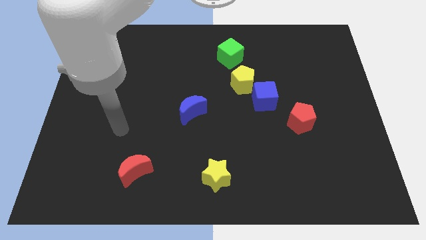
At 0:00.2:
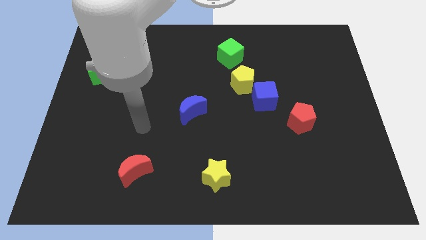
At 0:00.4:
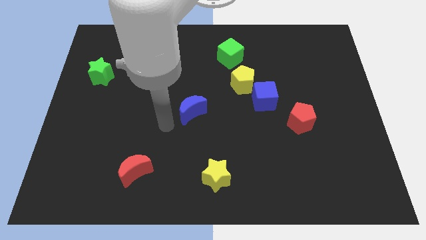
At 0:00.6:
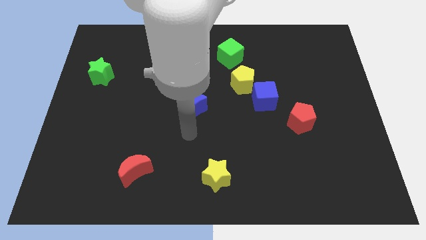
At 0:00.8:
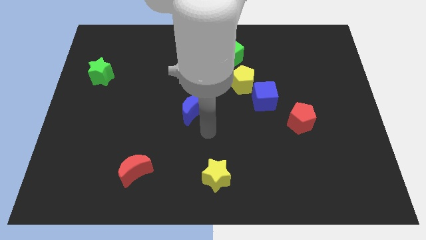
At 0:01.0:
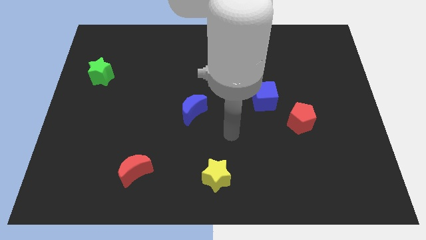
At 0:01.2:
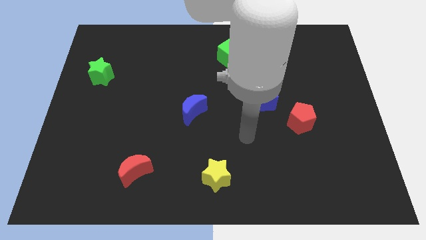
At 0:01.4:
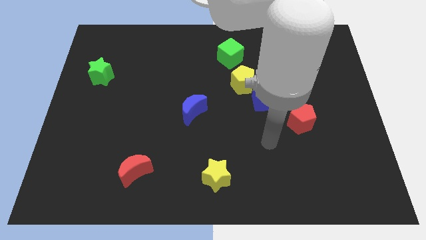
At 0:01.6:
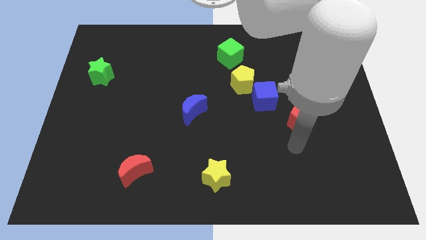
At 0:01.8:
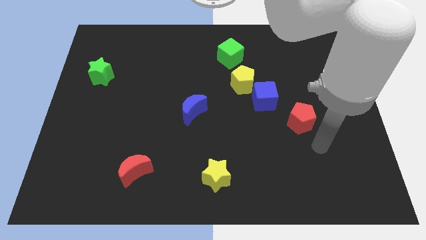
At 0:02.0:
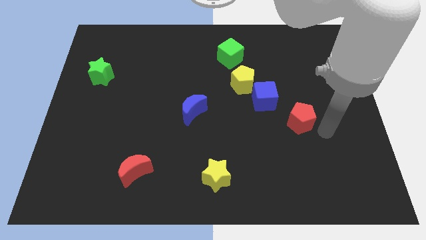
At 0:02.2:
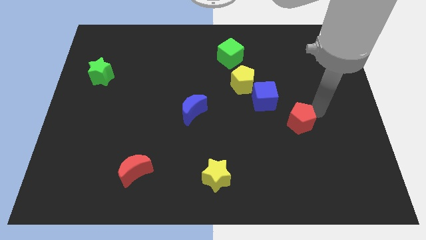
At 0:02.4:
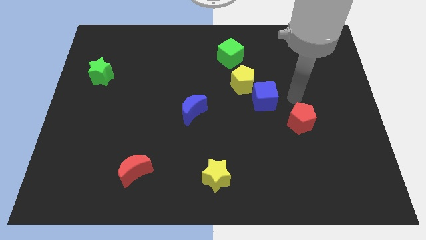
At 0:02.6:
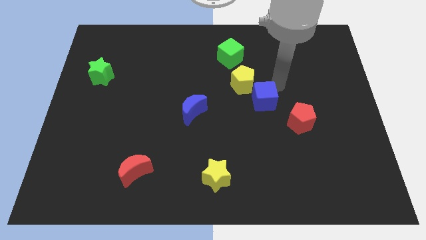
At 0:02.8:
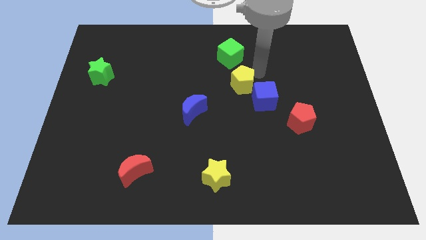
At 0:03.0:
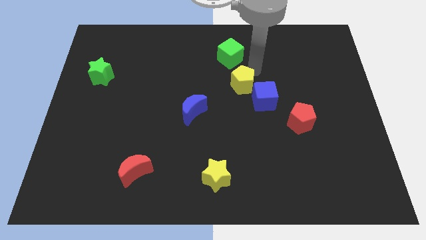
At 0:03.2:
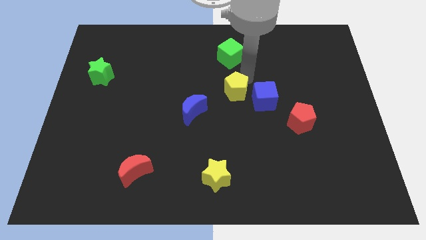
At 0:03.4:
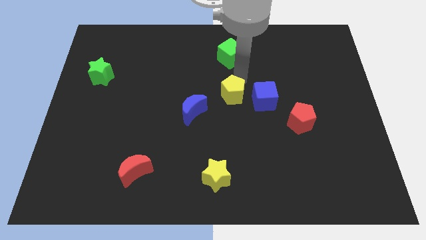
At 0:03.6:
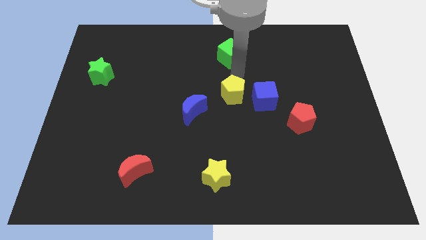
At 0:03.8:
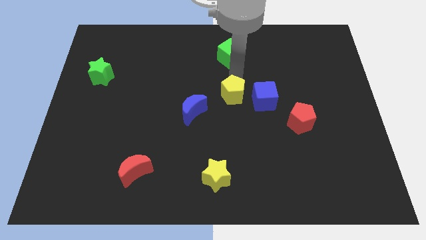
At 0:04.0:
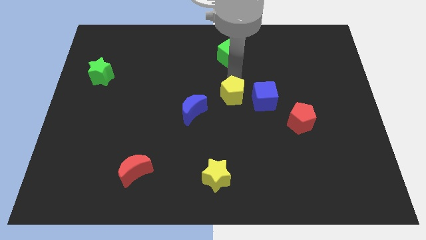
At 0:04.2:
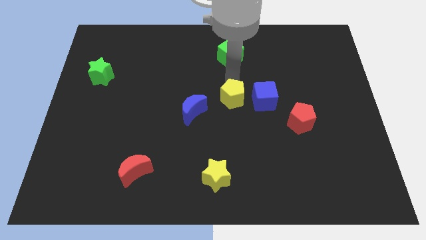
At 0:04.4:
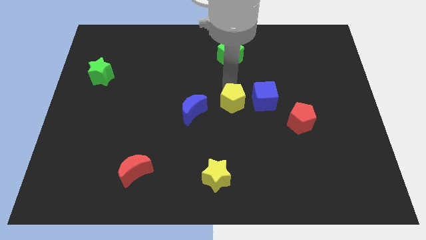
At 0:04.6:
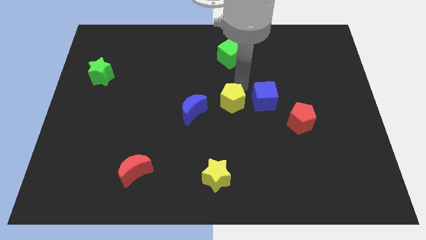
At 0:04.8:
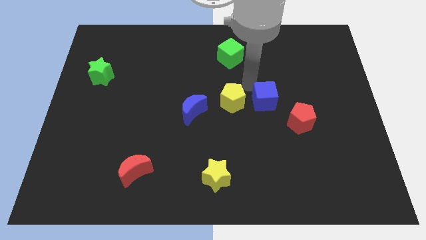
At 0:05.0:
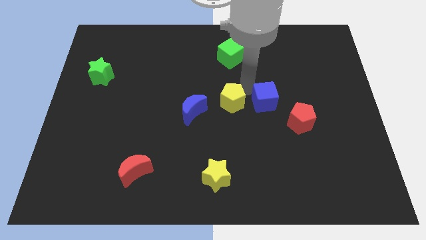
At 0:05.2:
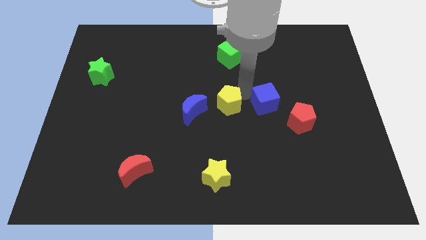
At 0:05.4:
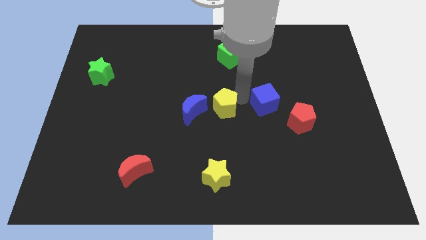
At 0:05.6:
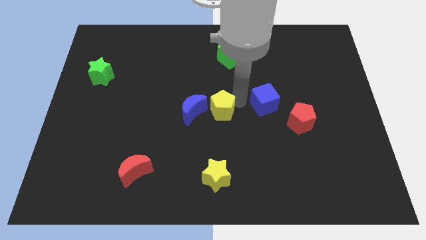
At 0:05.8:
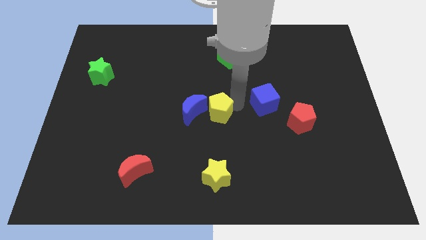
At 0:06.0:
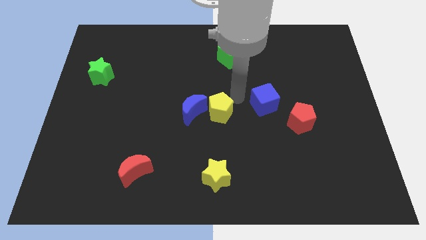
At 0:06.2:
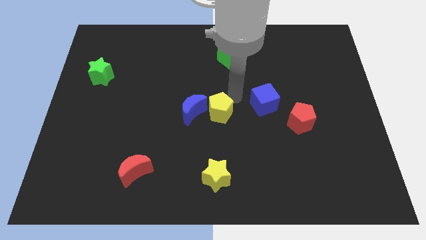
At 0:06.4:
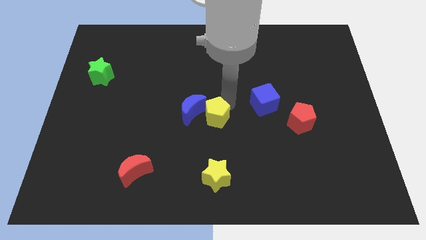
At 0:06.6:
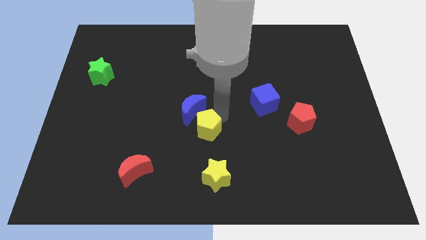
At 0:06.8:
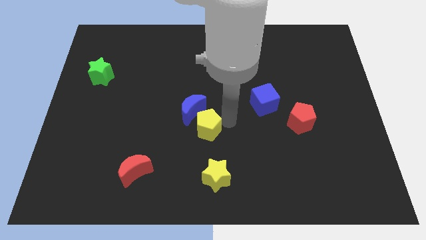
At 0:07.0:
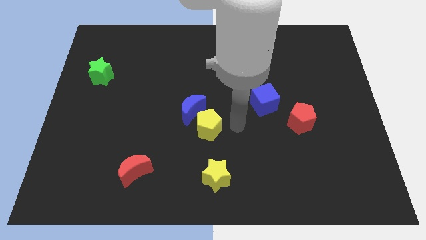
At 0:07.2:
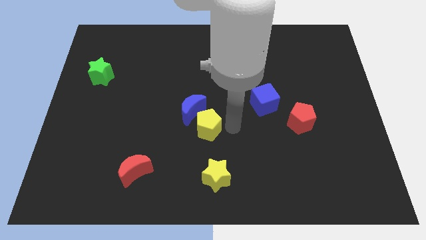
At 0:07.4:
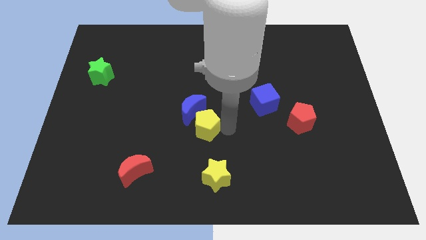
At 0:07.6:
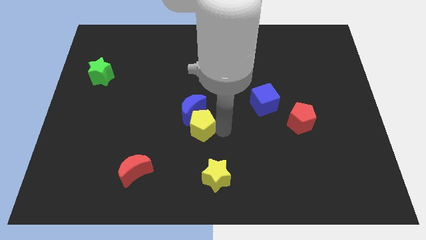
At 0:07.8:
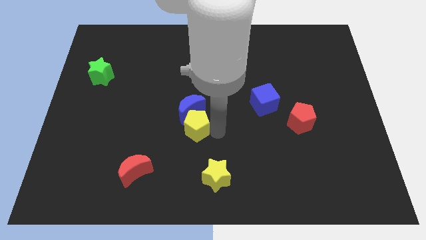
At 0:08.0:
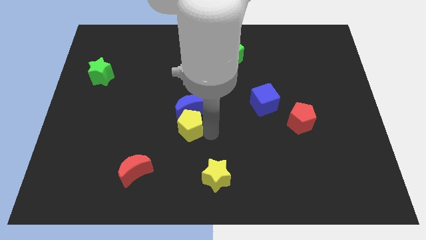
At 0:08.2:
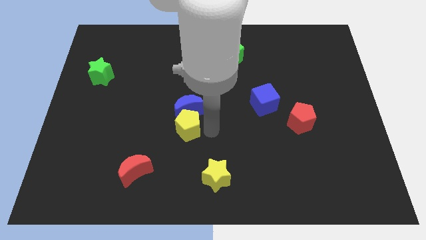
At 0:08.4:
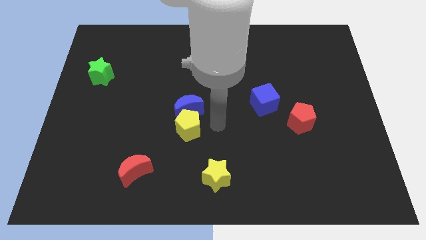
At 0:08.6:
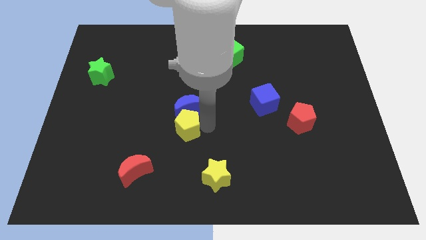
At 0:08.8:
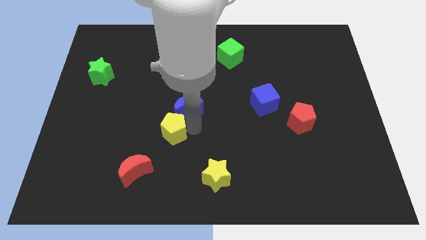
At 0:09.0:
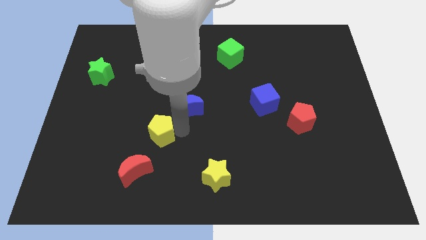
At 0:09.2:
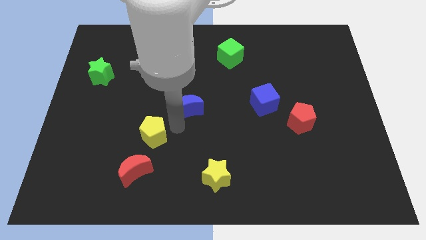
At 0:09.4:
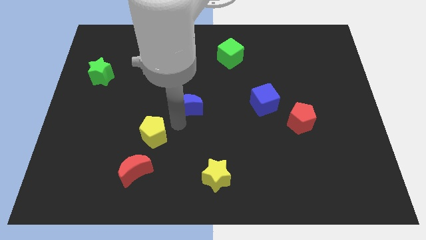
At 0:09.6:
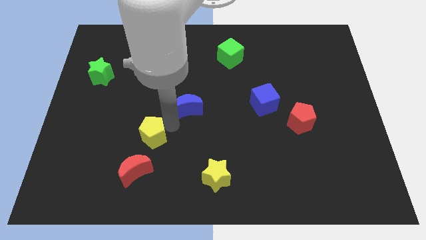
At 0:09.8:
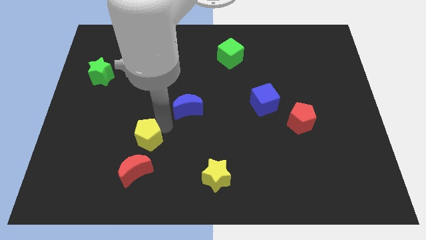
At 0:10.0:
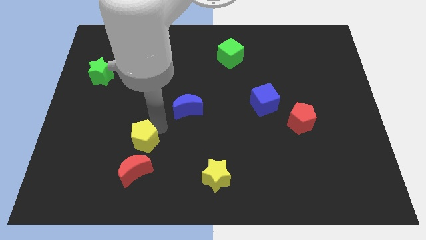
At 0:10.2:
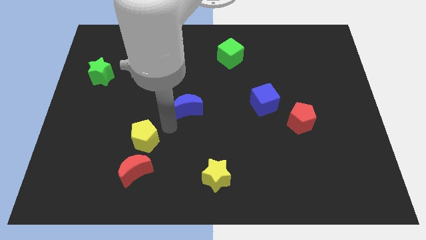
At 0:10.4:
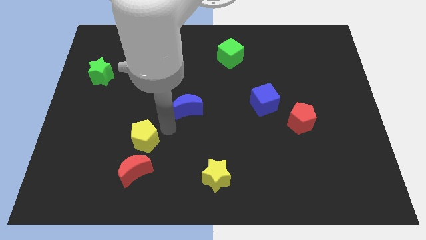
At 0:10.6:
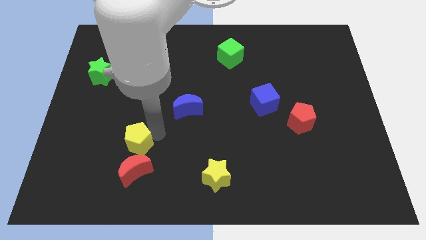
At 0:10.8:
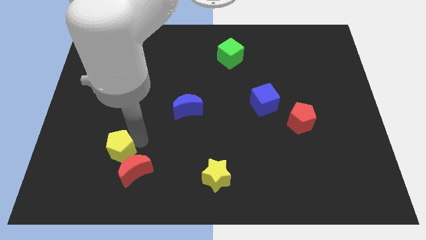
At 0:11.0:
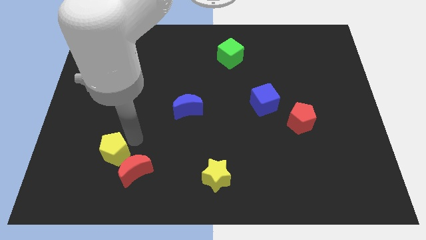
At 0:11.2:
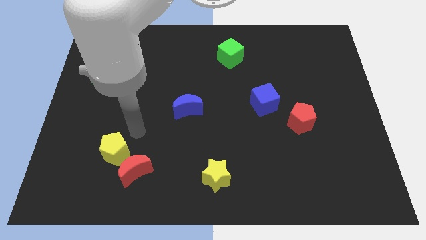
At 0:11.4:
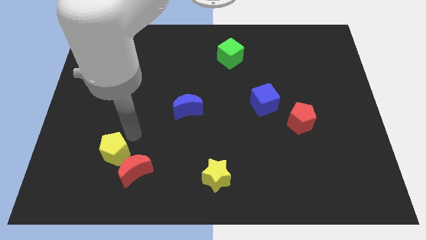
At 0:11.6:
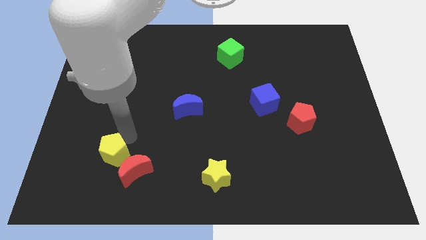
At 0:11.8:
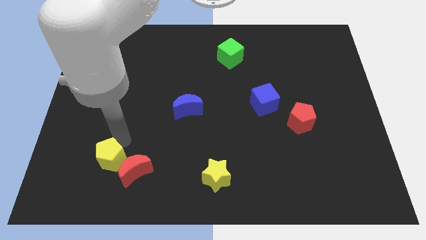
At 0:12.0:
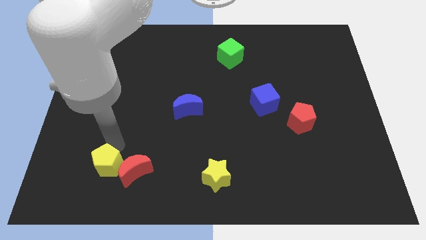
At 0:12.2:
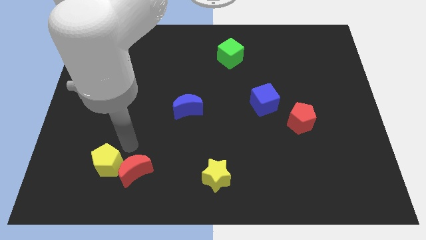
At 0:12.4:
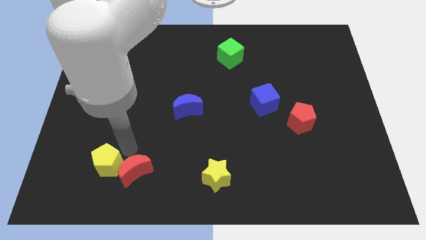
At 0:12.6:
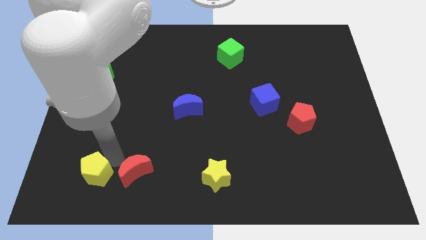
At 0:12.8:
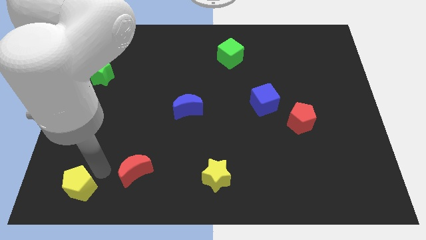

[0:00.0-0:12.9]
slide the yellow pentagon to the bottom left
